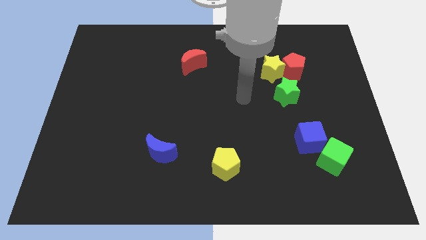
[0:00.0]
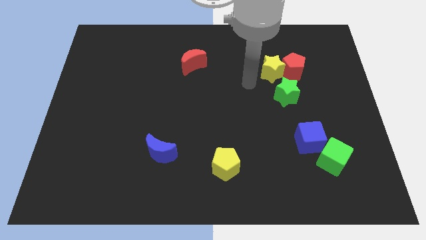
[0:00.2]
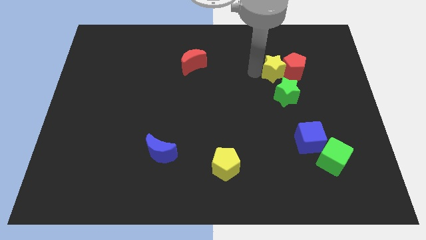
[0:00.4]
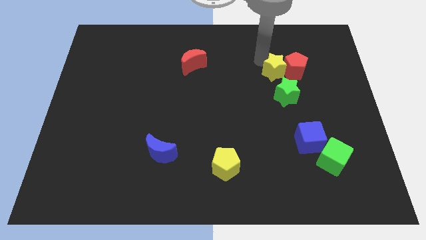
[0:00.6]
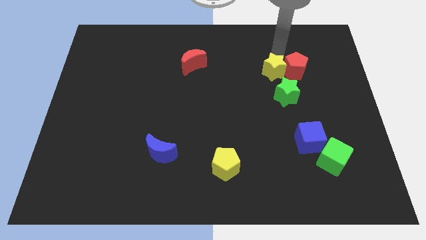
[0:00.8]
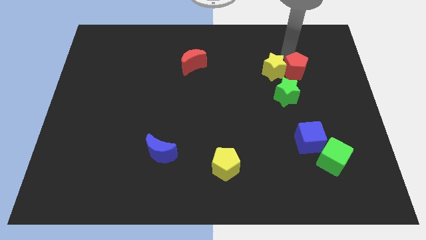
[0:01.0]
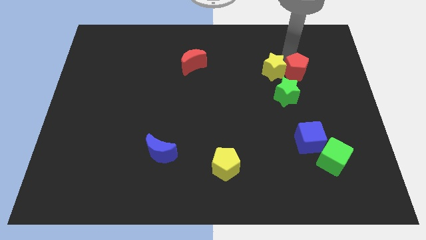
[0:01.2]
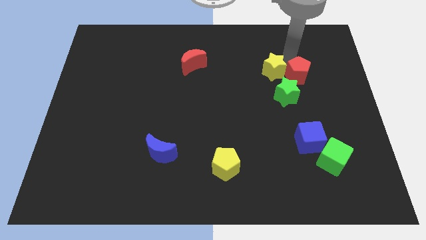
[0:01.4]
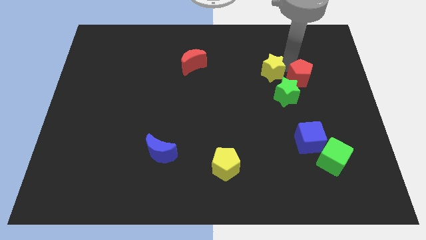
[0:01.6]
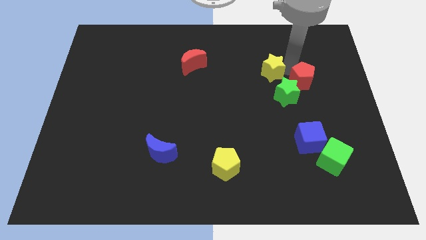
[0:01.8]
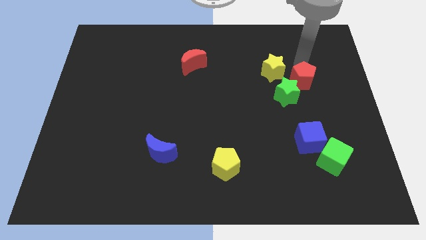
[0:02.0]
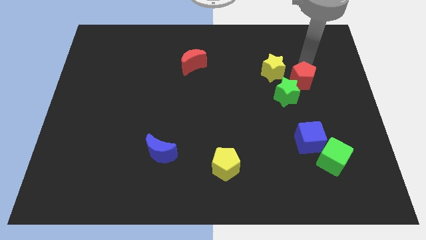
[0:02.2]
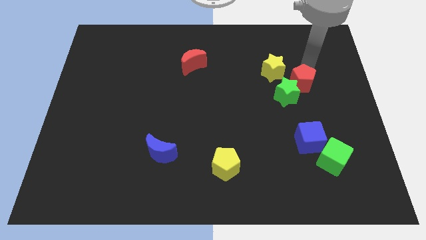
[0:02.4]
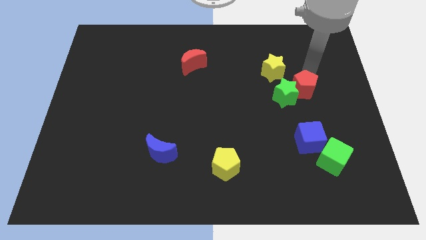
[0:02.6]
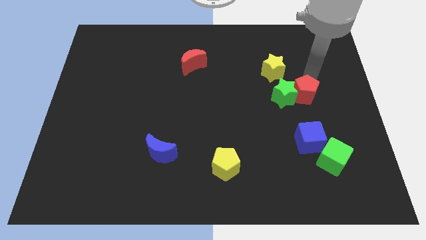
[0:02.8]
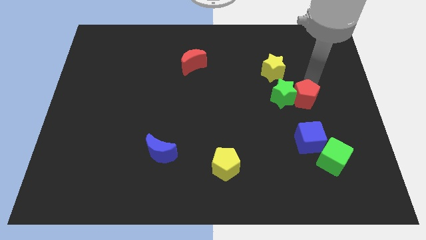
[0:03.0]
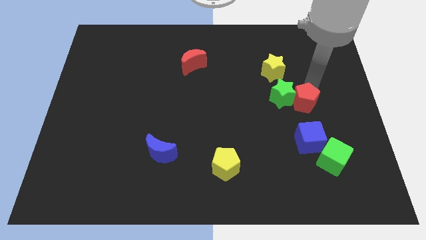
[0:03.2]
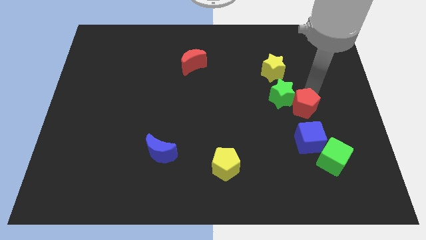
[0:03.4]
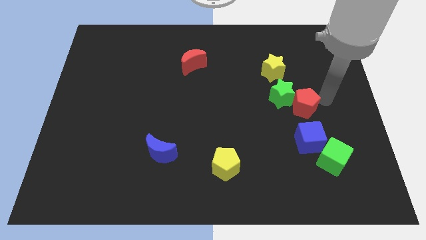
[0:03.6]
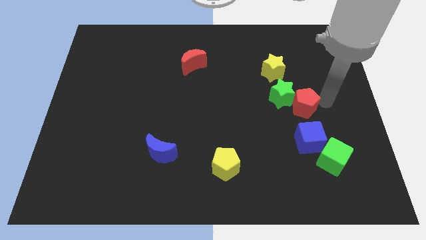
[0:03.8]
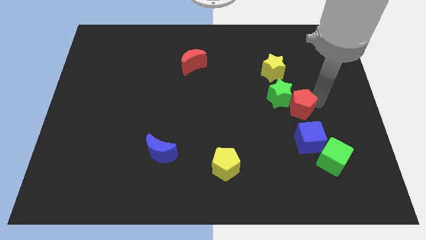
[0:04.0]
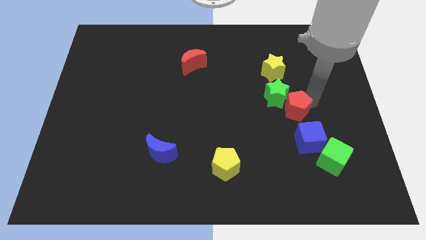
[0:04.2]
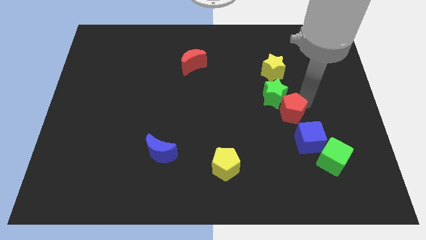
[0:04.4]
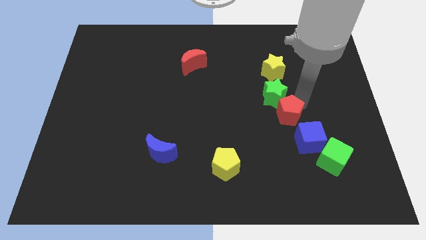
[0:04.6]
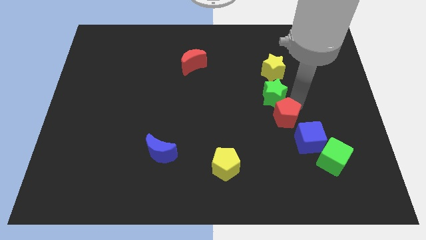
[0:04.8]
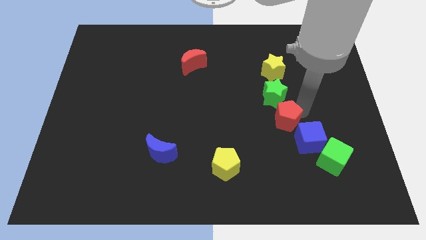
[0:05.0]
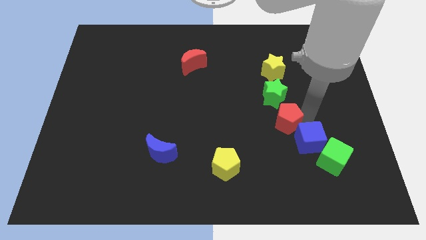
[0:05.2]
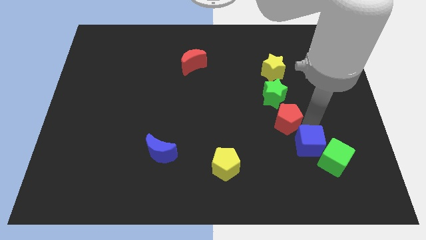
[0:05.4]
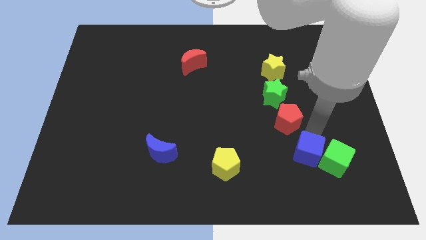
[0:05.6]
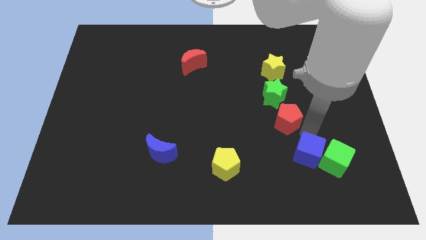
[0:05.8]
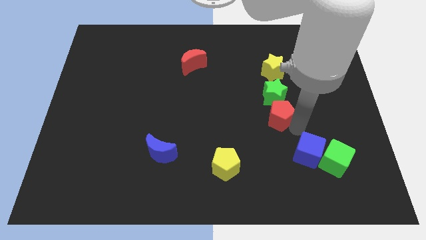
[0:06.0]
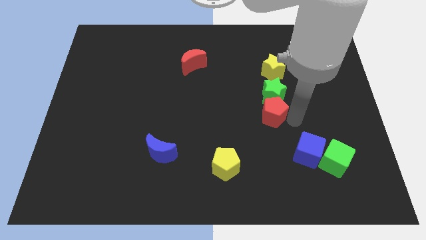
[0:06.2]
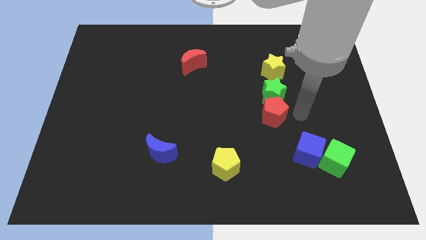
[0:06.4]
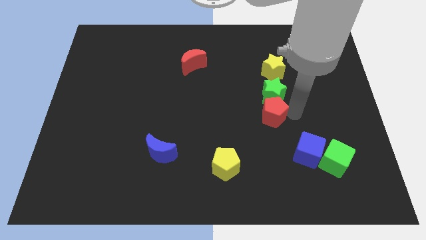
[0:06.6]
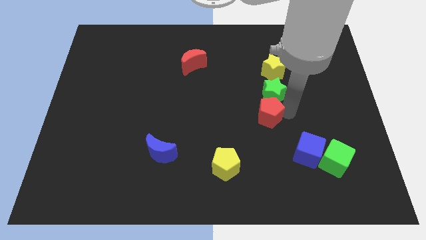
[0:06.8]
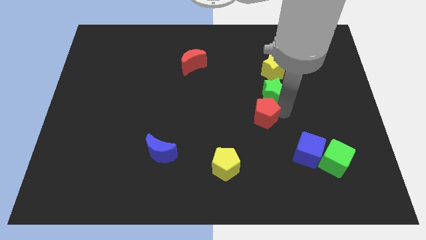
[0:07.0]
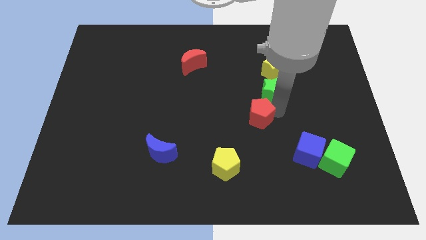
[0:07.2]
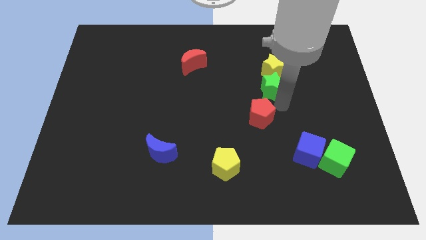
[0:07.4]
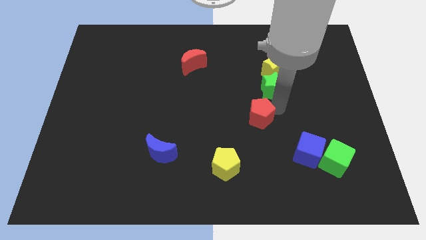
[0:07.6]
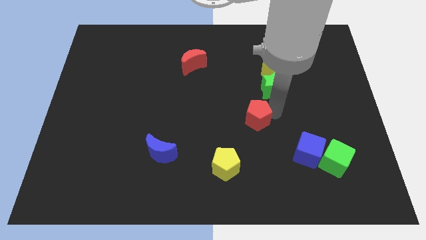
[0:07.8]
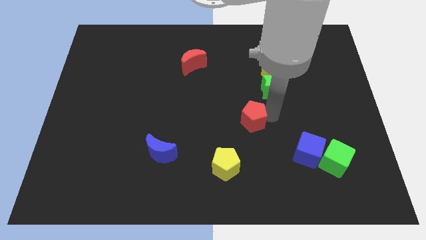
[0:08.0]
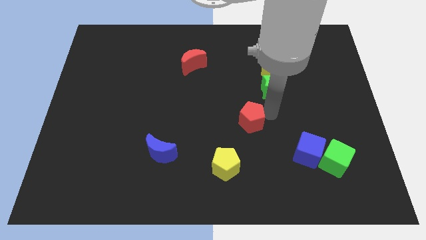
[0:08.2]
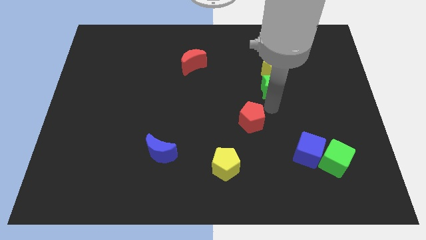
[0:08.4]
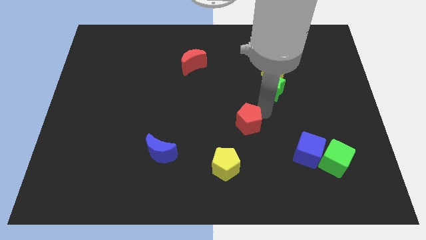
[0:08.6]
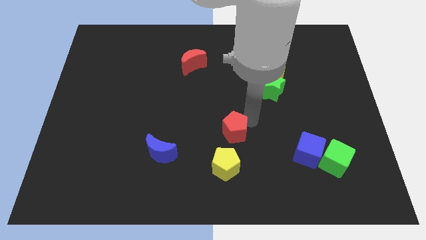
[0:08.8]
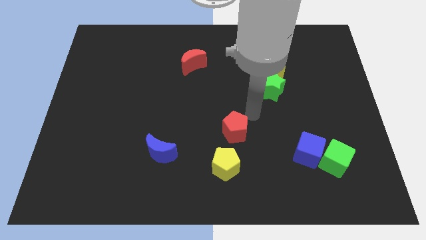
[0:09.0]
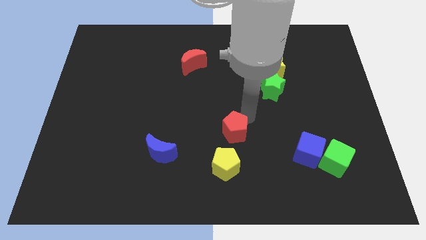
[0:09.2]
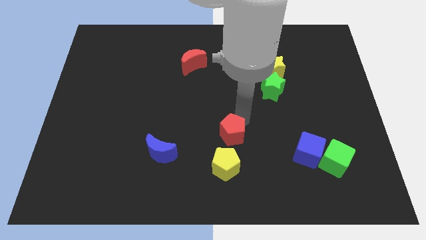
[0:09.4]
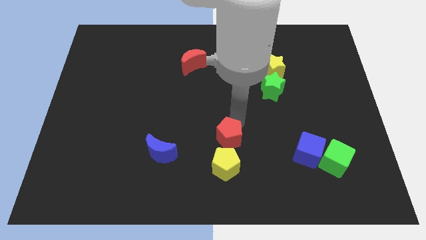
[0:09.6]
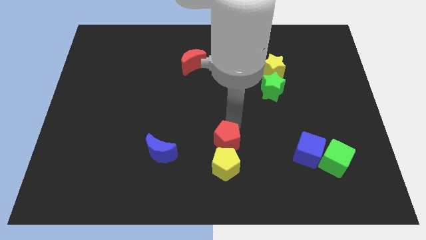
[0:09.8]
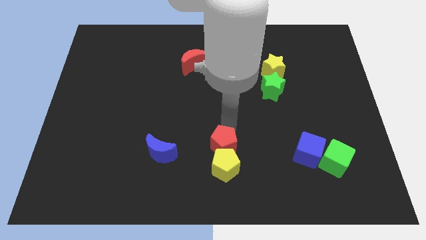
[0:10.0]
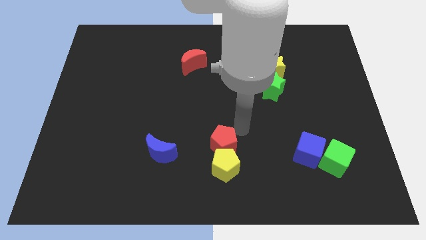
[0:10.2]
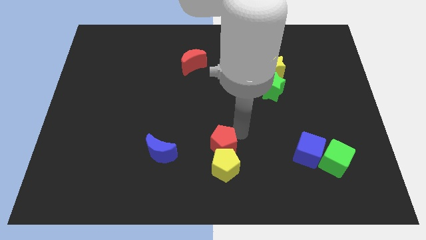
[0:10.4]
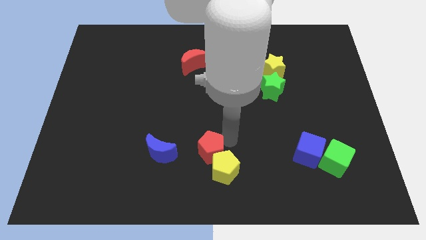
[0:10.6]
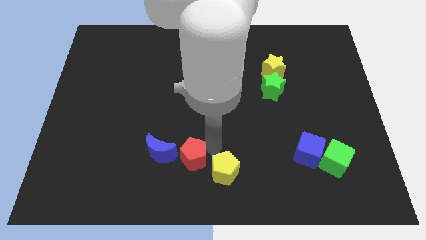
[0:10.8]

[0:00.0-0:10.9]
slide the red pentagon to the bottom right of the blue moon
